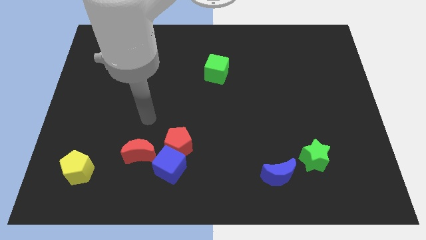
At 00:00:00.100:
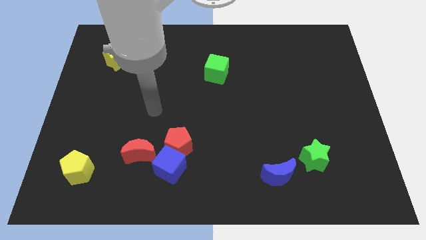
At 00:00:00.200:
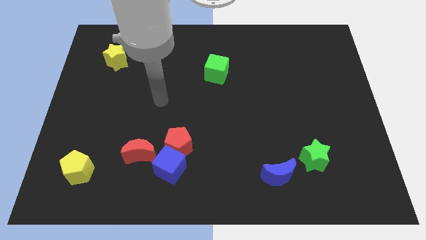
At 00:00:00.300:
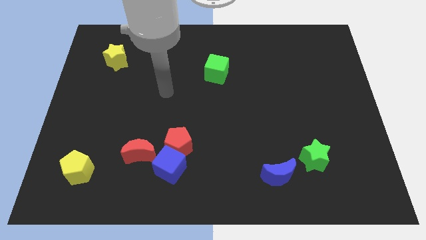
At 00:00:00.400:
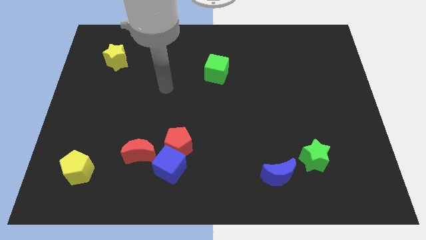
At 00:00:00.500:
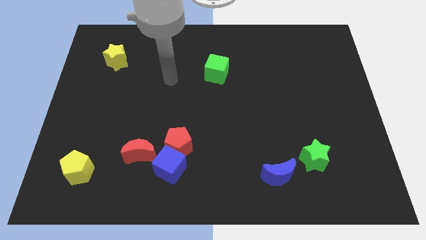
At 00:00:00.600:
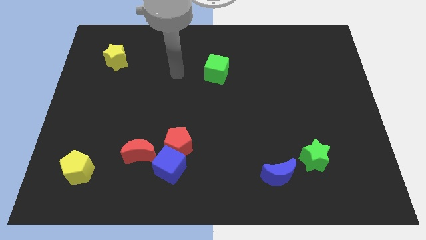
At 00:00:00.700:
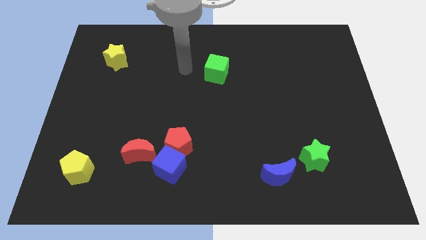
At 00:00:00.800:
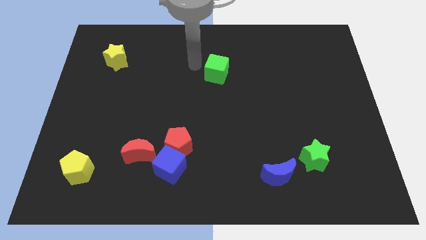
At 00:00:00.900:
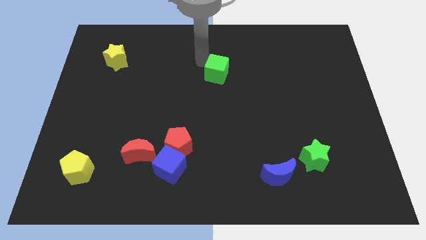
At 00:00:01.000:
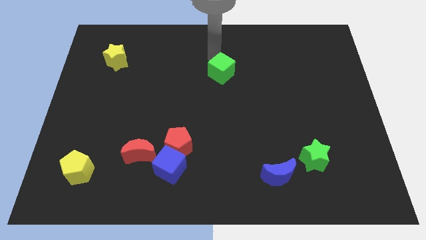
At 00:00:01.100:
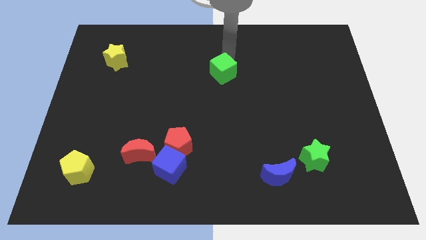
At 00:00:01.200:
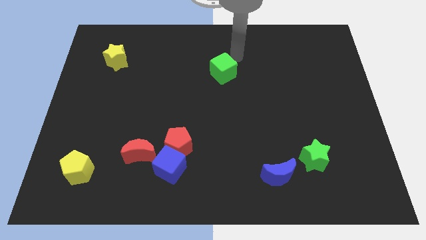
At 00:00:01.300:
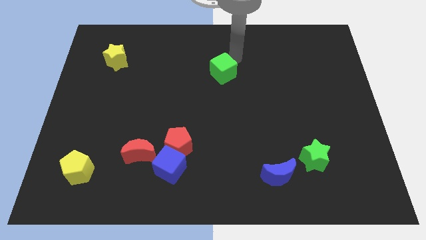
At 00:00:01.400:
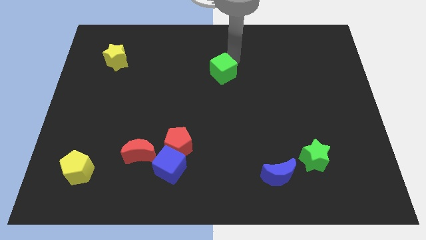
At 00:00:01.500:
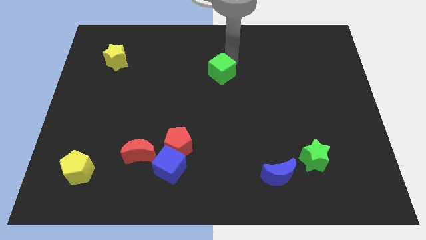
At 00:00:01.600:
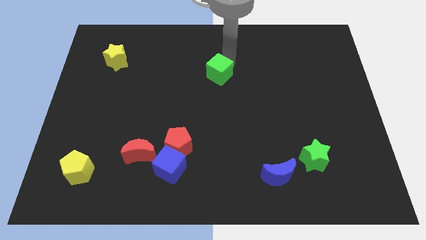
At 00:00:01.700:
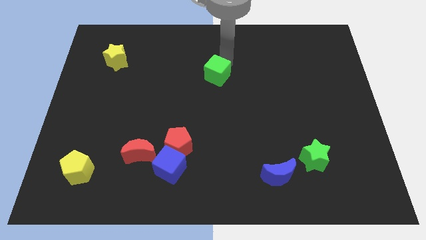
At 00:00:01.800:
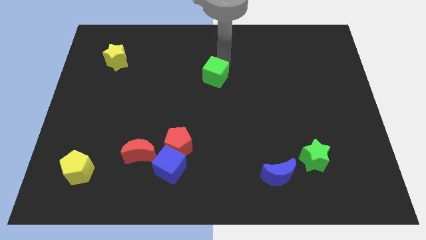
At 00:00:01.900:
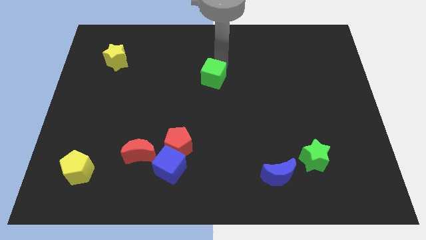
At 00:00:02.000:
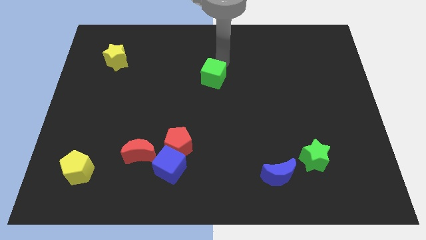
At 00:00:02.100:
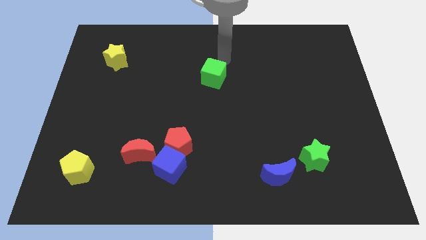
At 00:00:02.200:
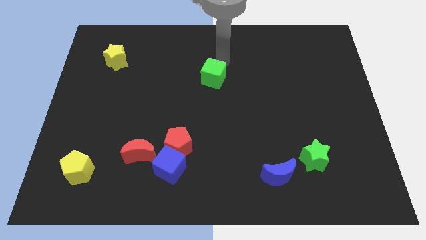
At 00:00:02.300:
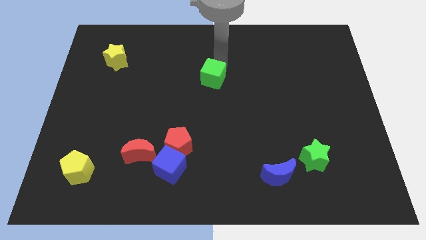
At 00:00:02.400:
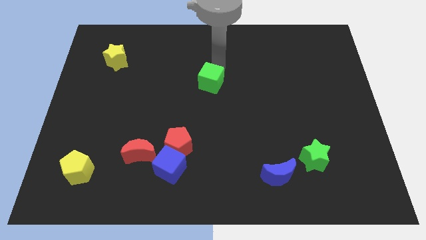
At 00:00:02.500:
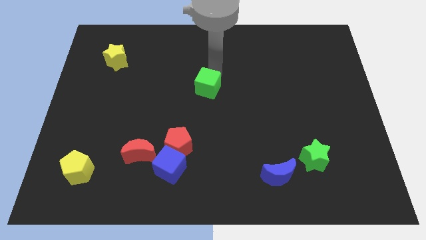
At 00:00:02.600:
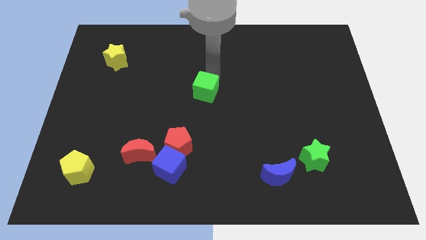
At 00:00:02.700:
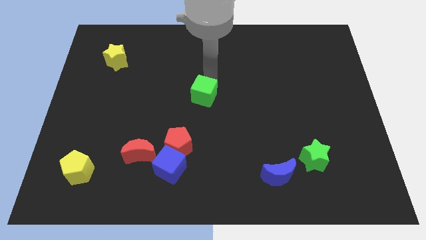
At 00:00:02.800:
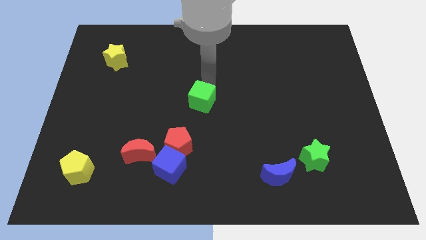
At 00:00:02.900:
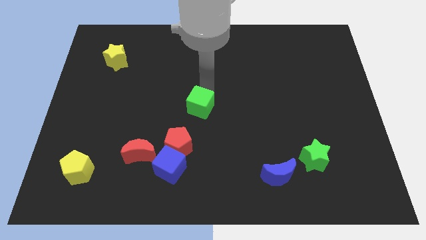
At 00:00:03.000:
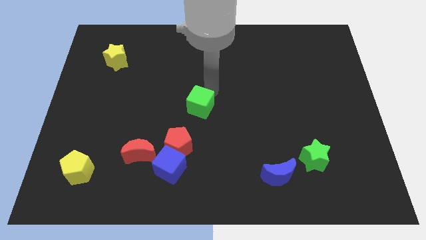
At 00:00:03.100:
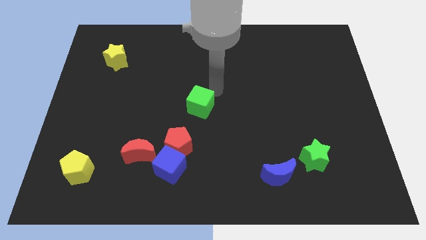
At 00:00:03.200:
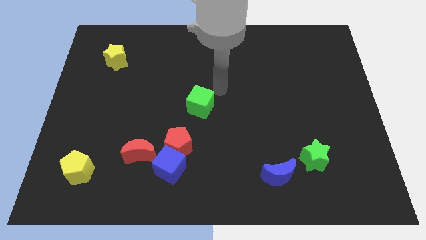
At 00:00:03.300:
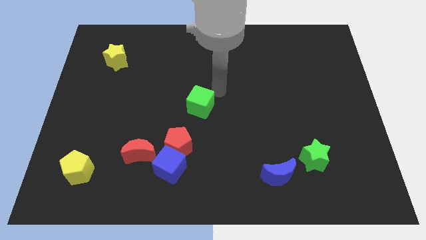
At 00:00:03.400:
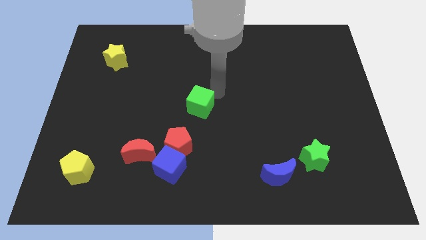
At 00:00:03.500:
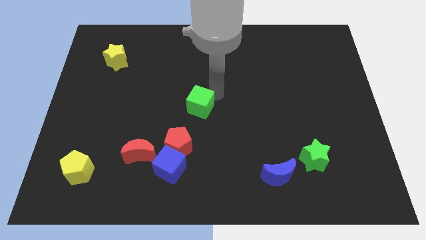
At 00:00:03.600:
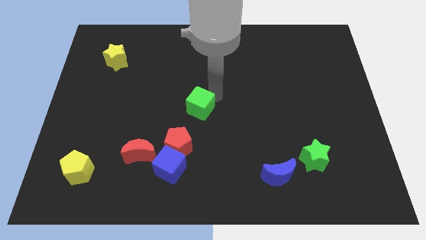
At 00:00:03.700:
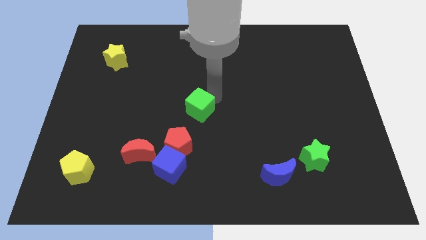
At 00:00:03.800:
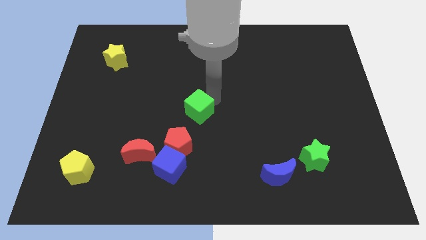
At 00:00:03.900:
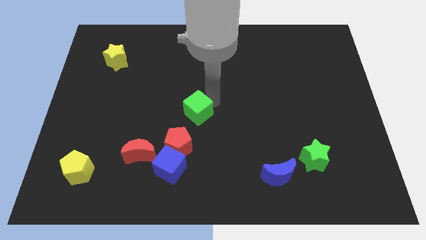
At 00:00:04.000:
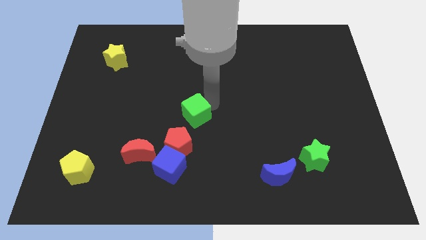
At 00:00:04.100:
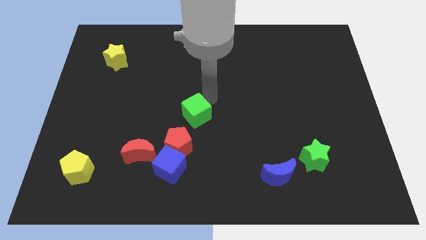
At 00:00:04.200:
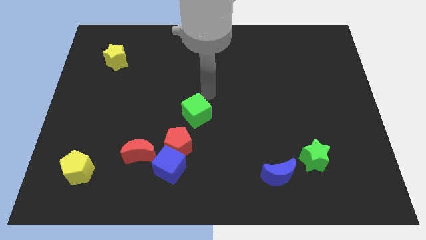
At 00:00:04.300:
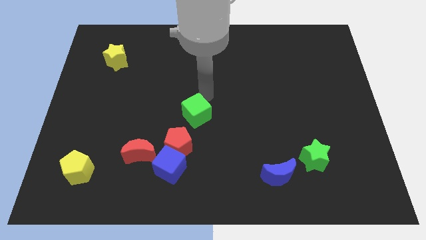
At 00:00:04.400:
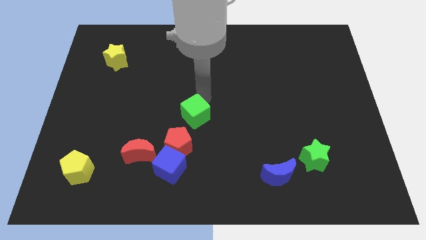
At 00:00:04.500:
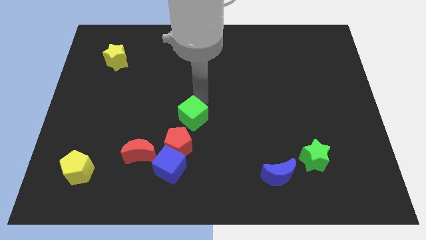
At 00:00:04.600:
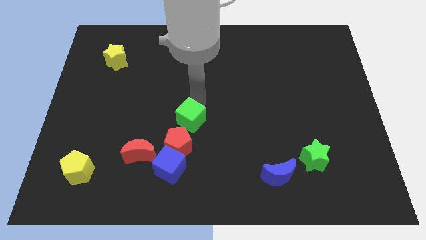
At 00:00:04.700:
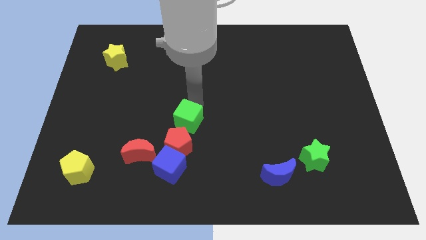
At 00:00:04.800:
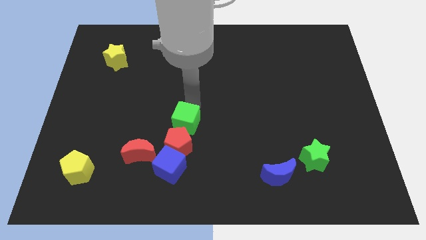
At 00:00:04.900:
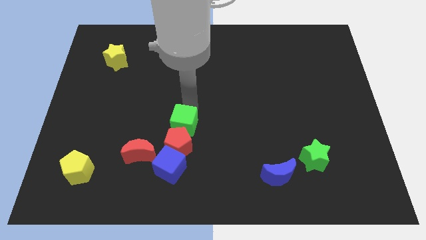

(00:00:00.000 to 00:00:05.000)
push the green cube to the red pentagon

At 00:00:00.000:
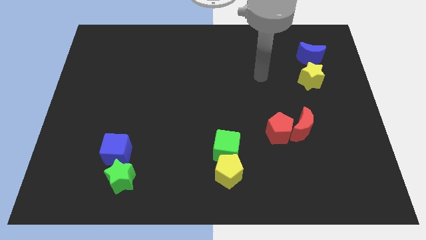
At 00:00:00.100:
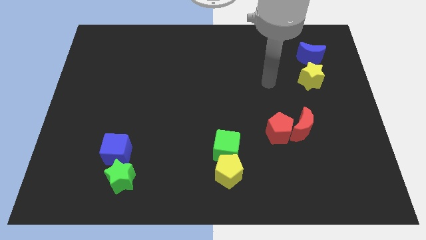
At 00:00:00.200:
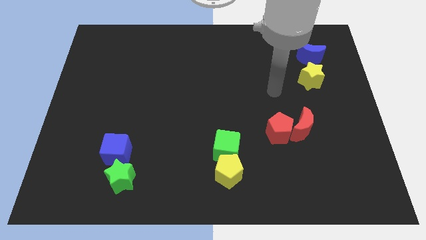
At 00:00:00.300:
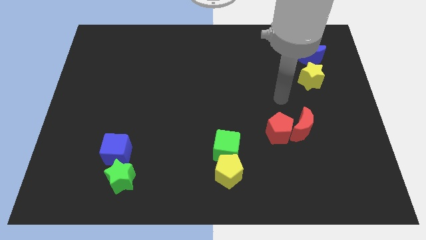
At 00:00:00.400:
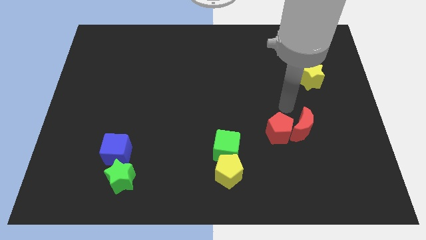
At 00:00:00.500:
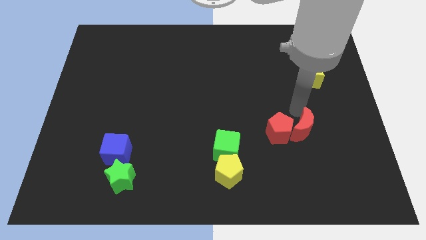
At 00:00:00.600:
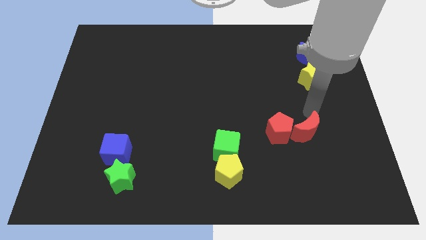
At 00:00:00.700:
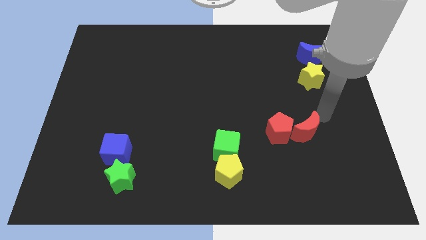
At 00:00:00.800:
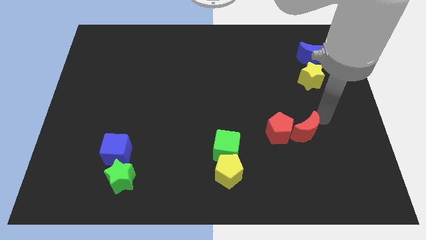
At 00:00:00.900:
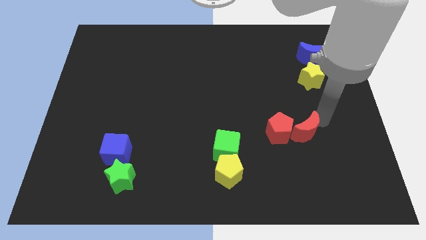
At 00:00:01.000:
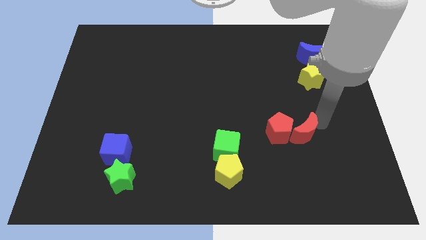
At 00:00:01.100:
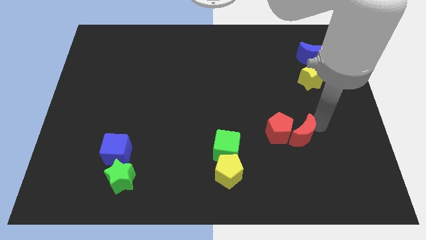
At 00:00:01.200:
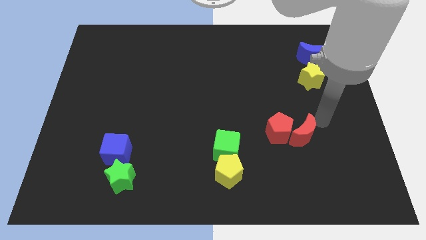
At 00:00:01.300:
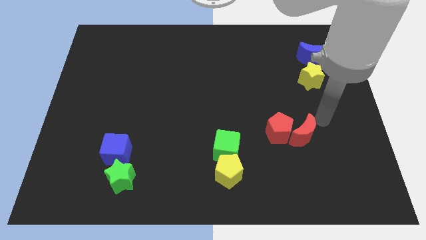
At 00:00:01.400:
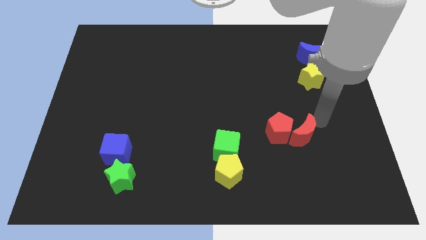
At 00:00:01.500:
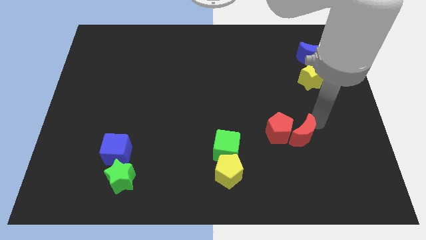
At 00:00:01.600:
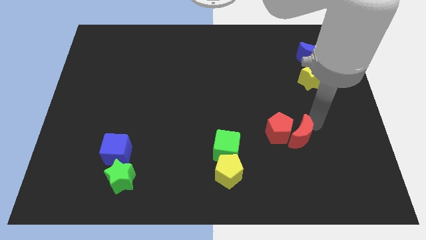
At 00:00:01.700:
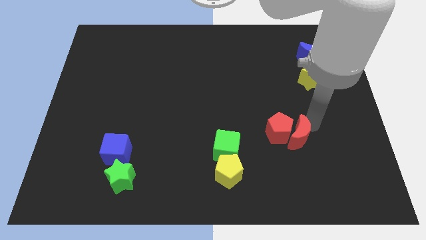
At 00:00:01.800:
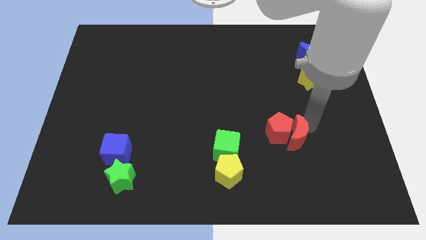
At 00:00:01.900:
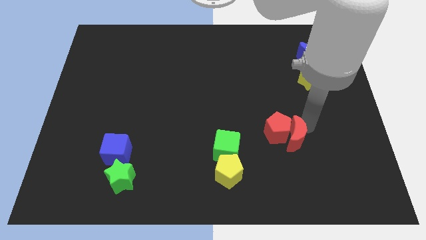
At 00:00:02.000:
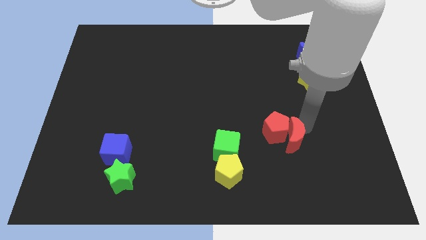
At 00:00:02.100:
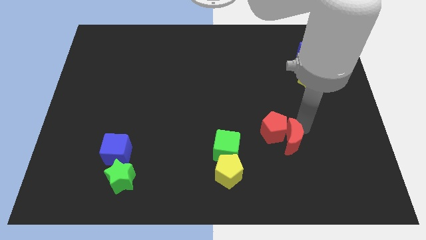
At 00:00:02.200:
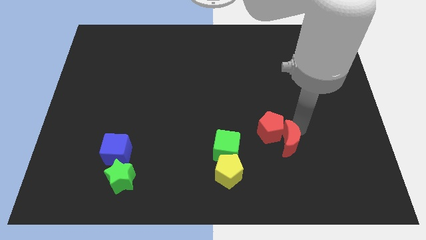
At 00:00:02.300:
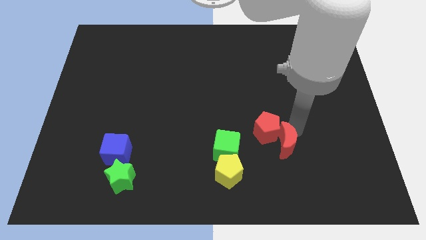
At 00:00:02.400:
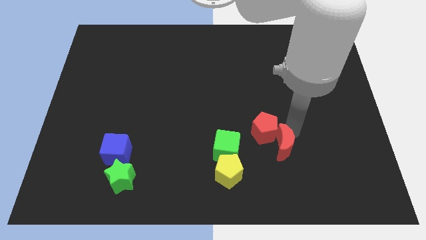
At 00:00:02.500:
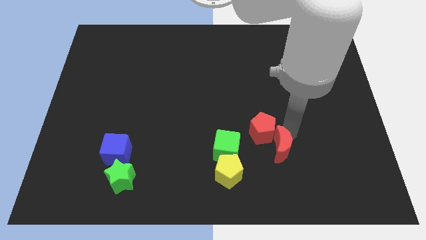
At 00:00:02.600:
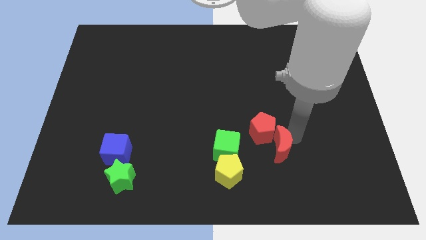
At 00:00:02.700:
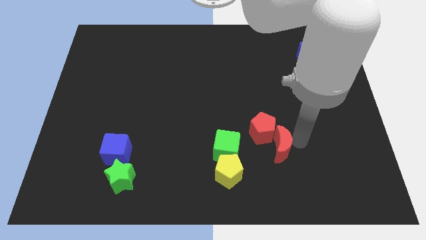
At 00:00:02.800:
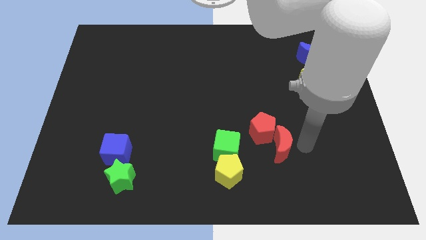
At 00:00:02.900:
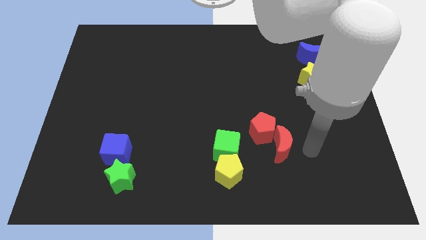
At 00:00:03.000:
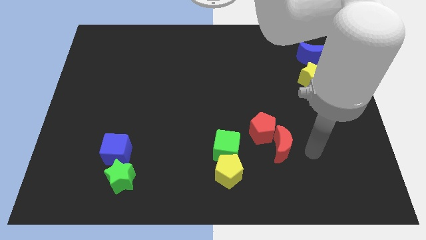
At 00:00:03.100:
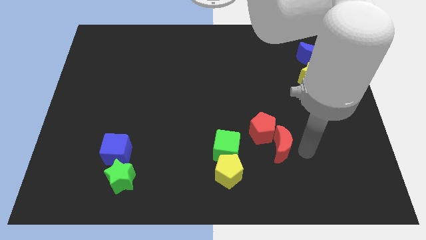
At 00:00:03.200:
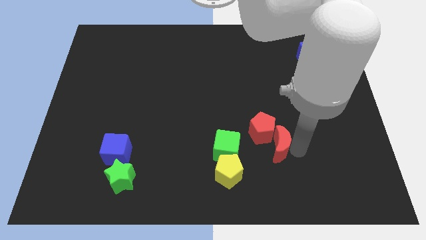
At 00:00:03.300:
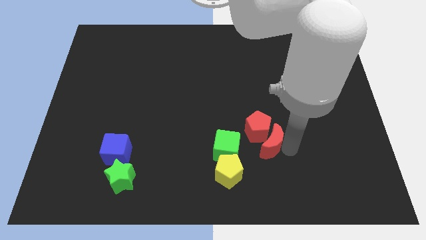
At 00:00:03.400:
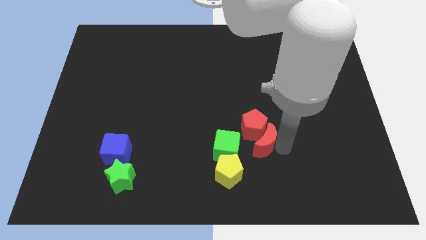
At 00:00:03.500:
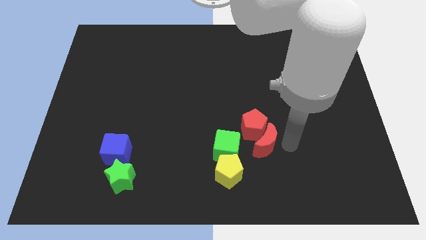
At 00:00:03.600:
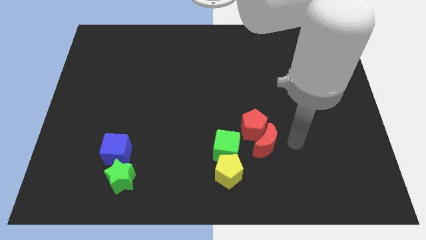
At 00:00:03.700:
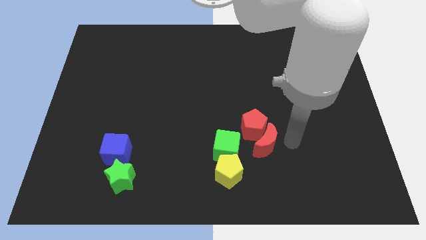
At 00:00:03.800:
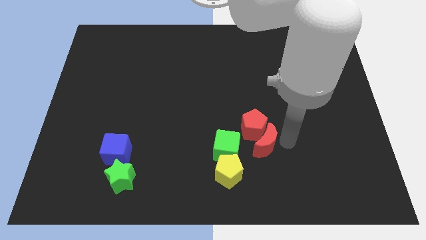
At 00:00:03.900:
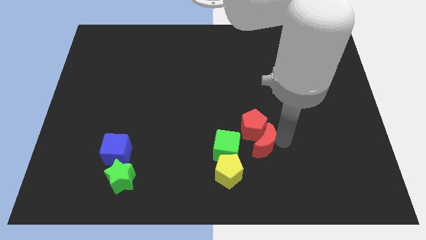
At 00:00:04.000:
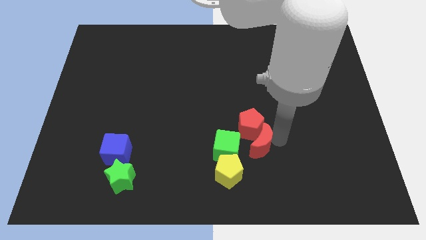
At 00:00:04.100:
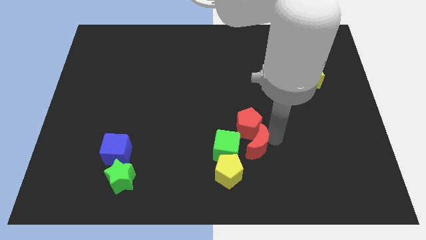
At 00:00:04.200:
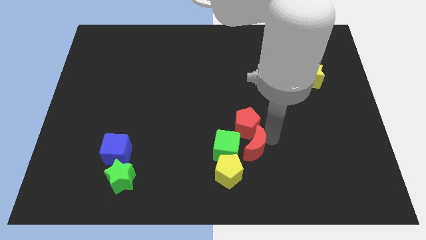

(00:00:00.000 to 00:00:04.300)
put the red moon next to the green cube
